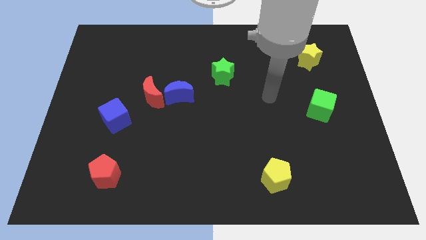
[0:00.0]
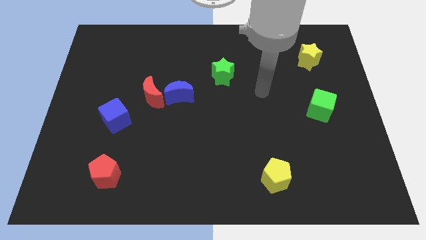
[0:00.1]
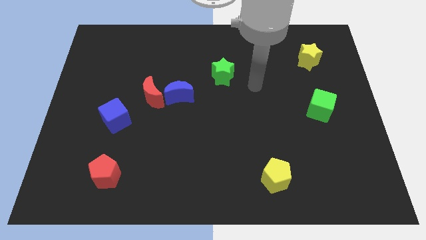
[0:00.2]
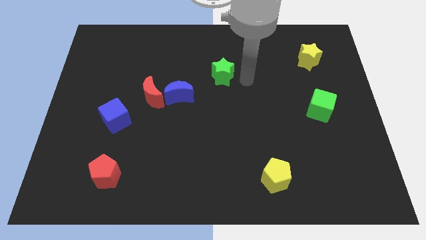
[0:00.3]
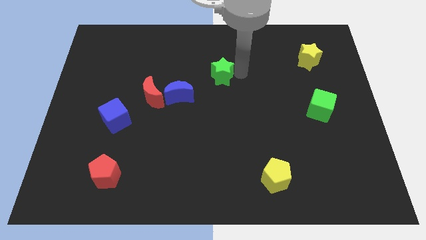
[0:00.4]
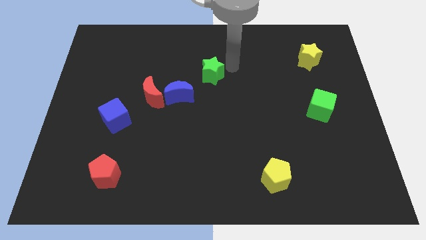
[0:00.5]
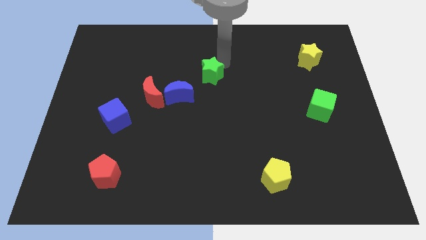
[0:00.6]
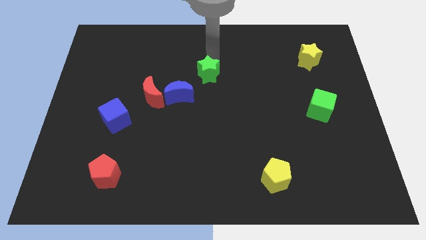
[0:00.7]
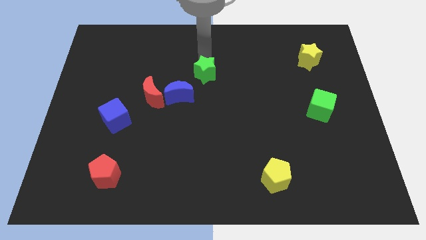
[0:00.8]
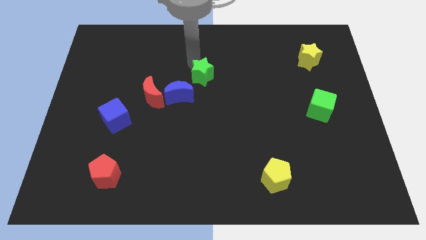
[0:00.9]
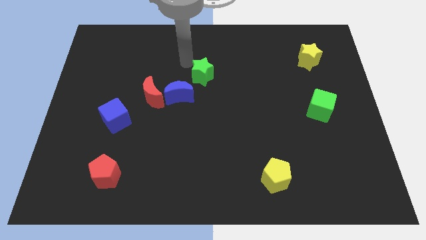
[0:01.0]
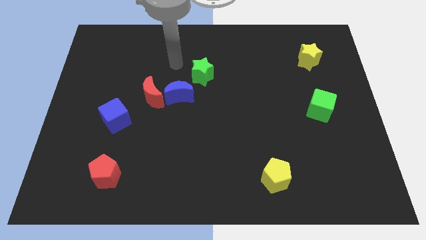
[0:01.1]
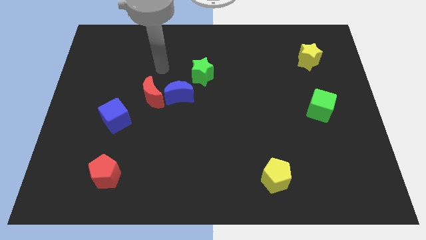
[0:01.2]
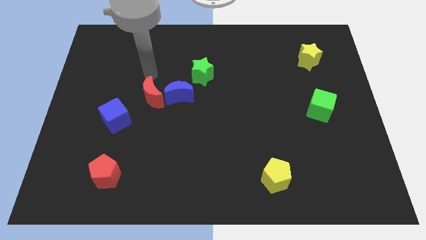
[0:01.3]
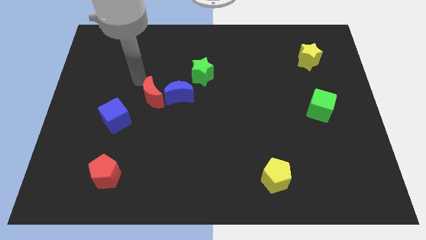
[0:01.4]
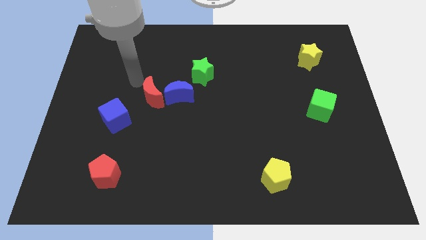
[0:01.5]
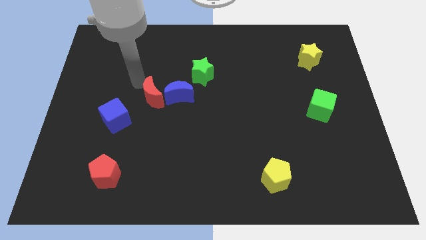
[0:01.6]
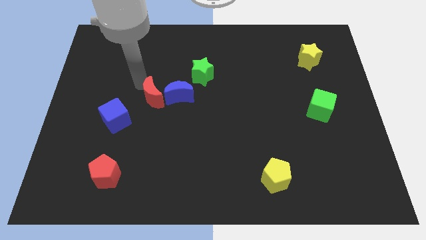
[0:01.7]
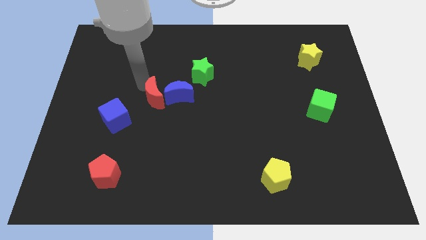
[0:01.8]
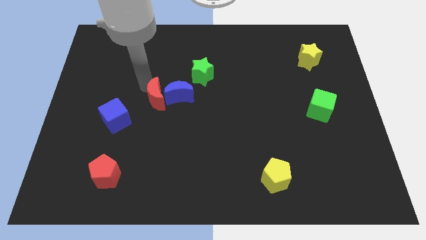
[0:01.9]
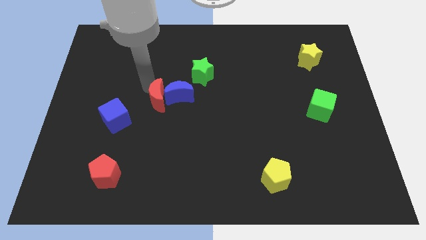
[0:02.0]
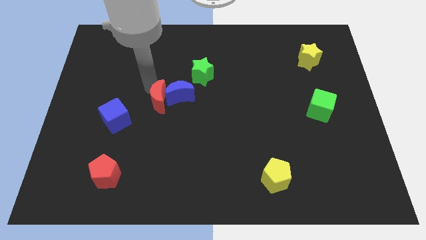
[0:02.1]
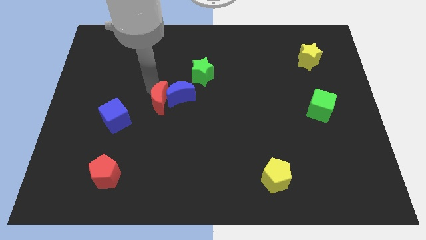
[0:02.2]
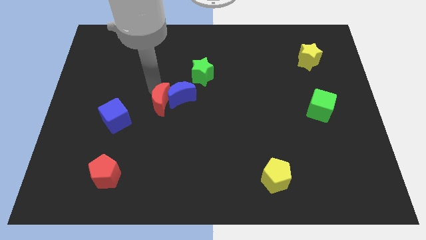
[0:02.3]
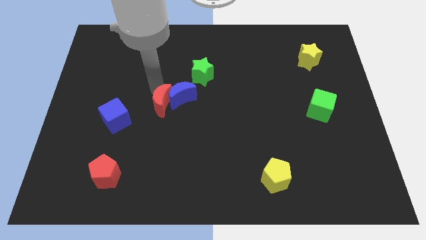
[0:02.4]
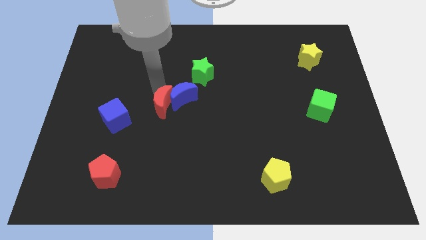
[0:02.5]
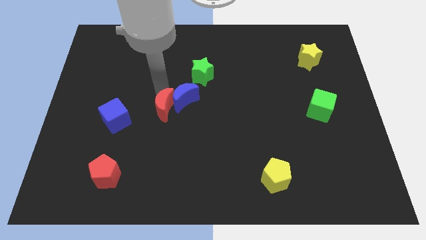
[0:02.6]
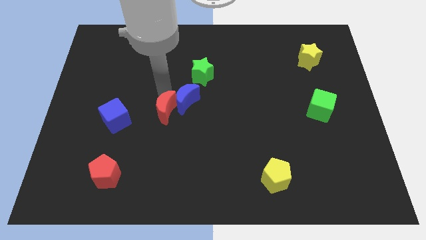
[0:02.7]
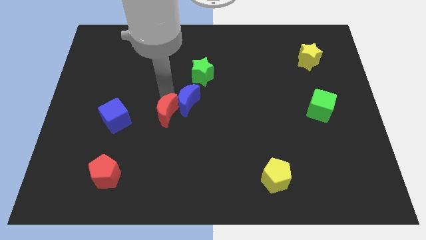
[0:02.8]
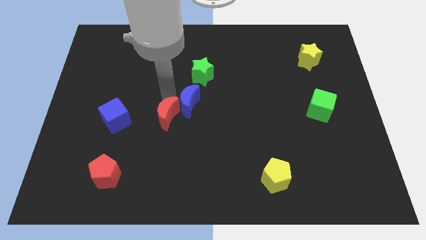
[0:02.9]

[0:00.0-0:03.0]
move the red moon down and to the right diagonally slightly

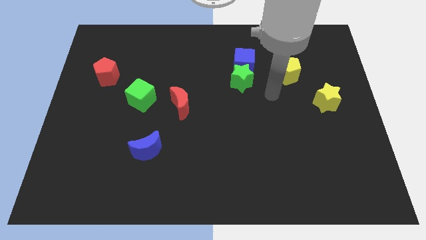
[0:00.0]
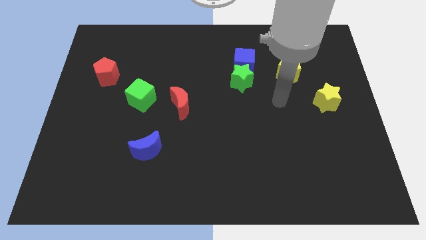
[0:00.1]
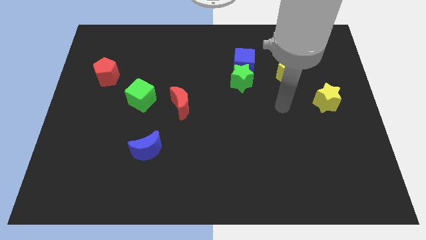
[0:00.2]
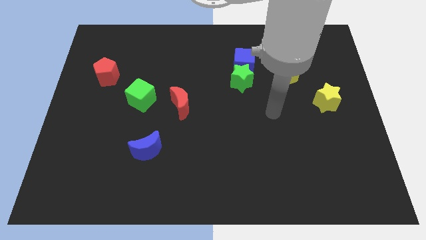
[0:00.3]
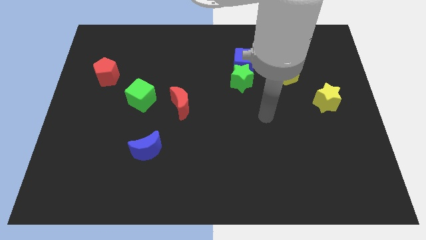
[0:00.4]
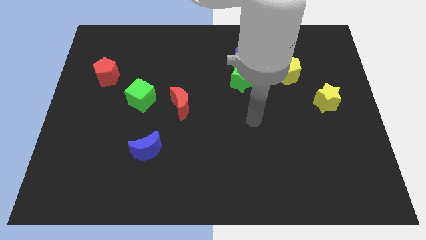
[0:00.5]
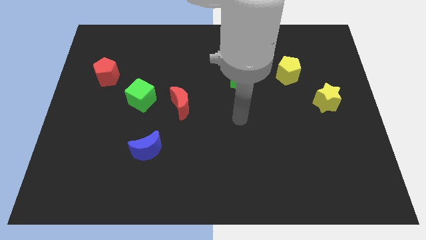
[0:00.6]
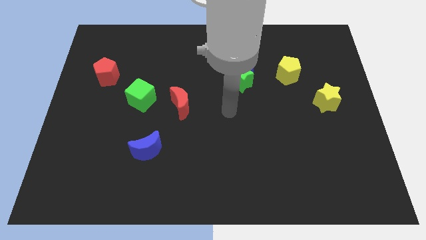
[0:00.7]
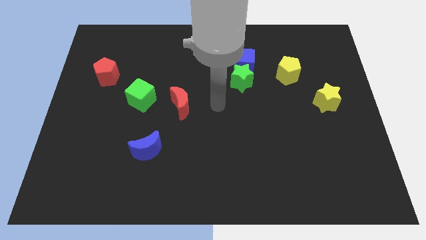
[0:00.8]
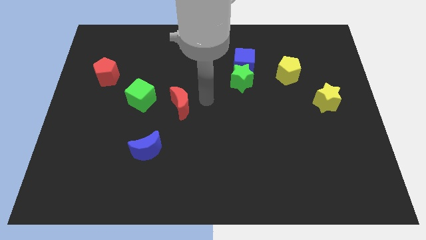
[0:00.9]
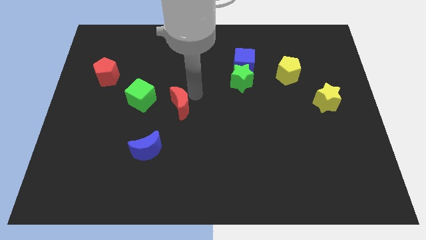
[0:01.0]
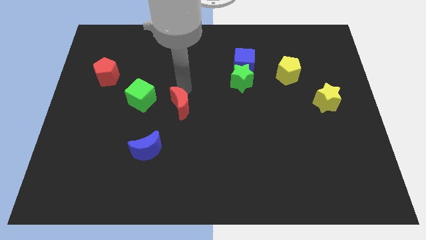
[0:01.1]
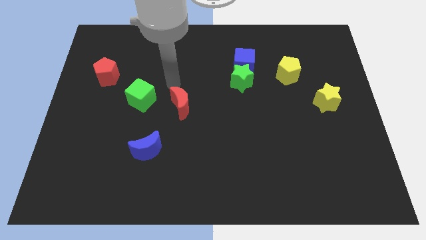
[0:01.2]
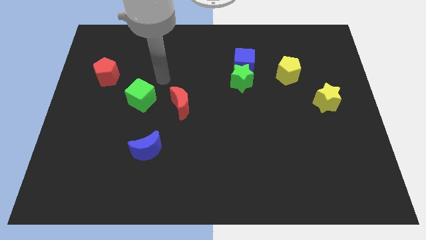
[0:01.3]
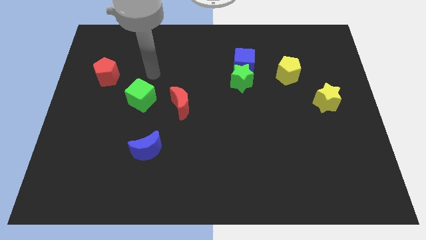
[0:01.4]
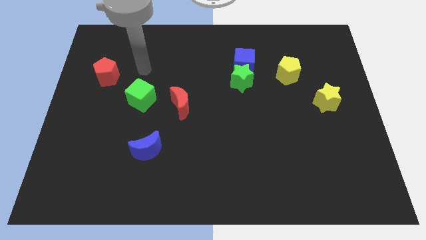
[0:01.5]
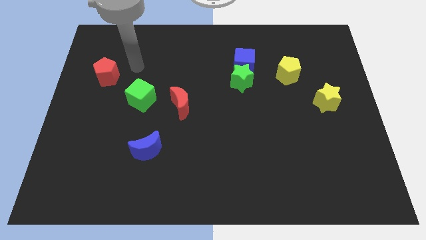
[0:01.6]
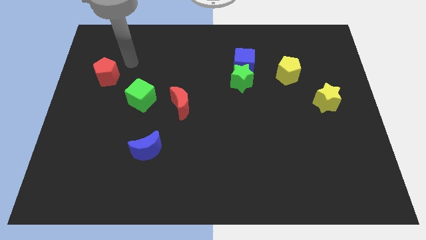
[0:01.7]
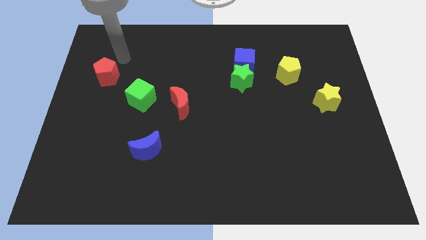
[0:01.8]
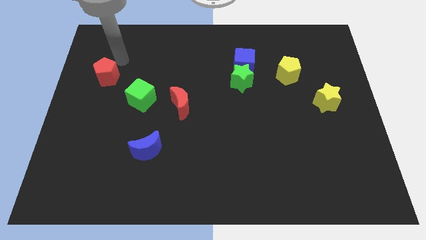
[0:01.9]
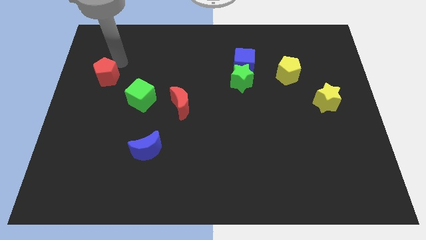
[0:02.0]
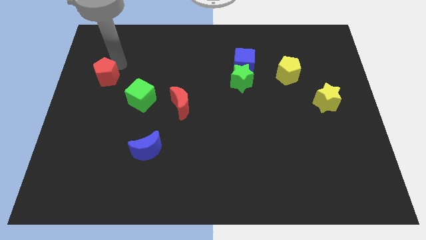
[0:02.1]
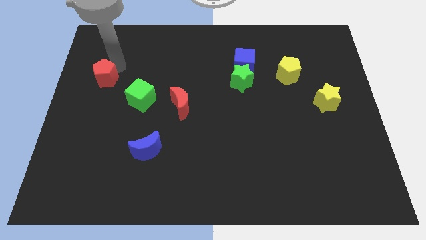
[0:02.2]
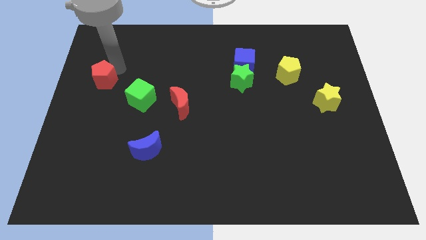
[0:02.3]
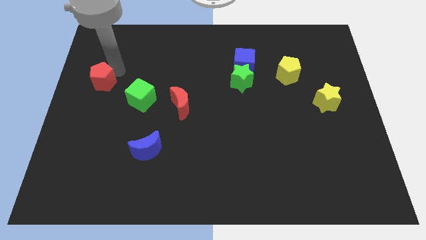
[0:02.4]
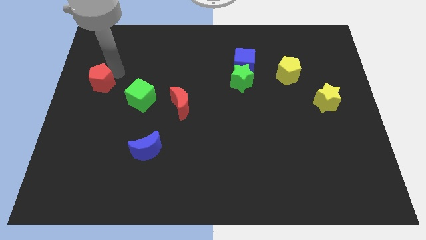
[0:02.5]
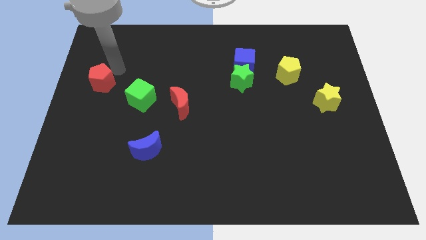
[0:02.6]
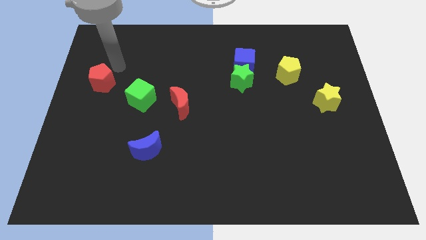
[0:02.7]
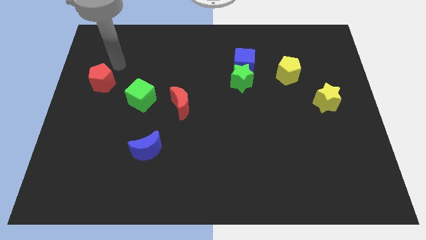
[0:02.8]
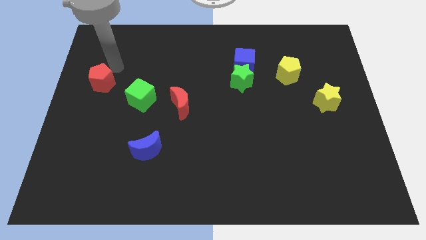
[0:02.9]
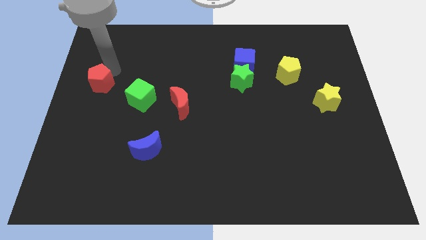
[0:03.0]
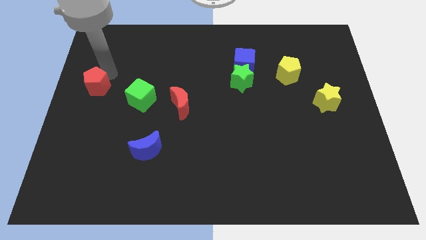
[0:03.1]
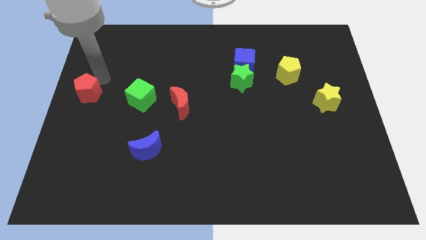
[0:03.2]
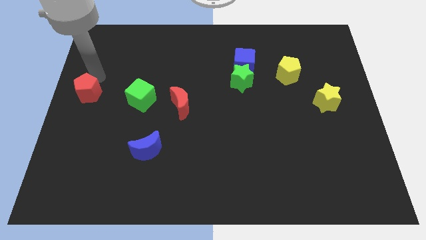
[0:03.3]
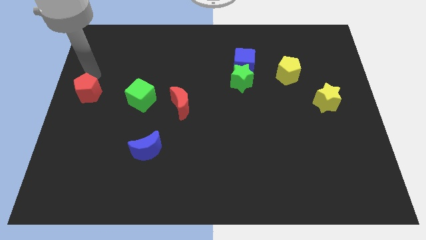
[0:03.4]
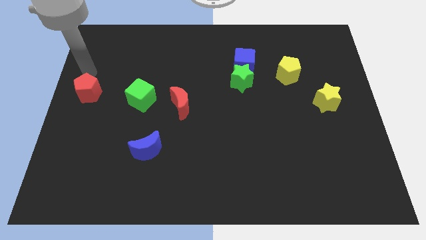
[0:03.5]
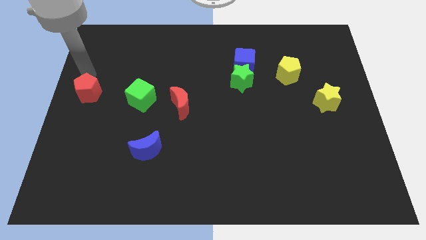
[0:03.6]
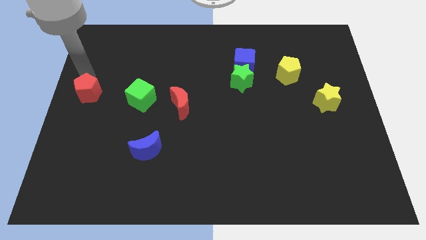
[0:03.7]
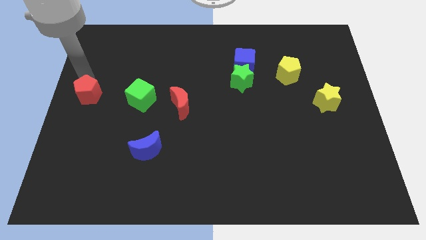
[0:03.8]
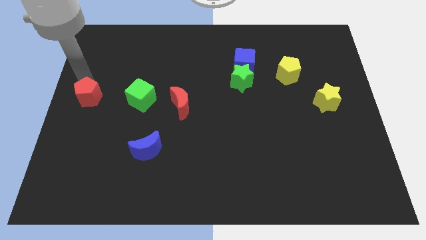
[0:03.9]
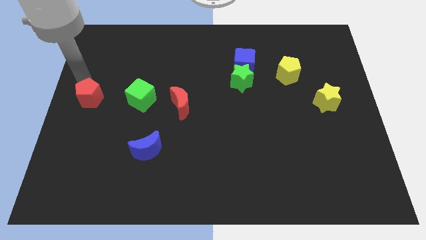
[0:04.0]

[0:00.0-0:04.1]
push the red pentagon downwards slightly

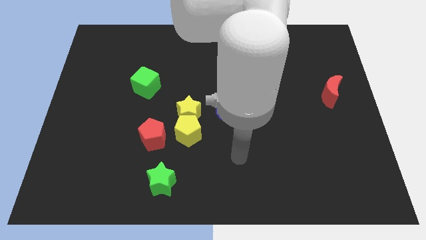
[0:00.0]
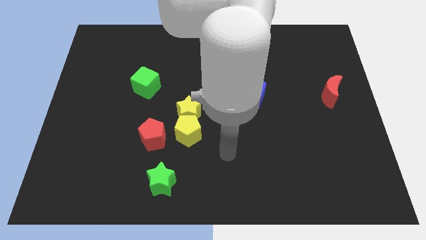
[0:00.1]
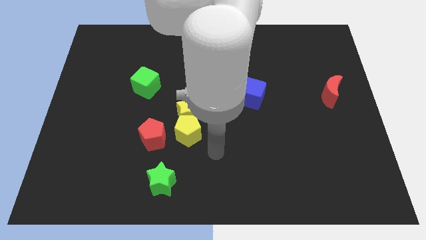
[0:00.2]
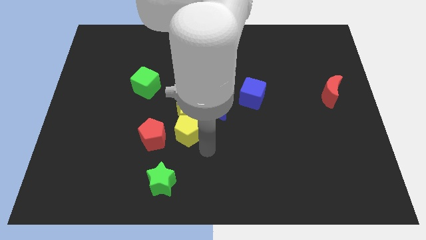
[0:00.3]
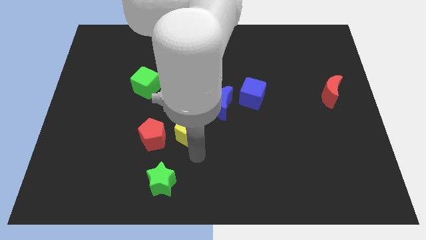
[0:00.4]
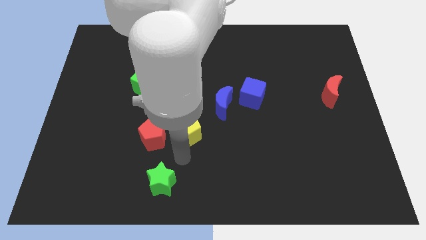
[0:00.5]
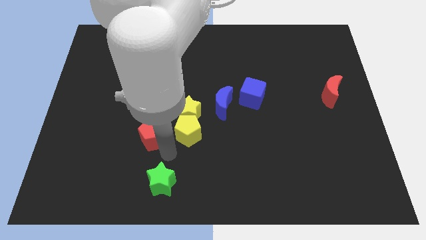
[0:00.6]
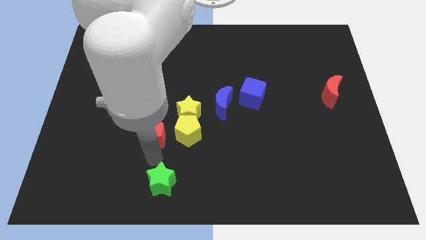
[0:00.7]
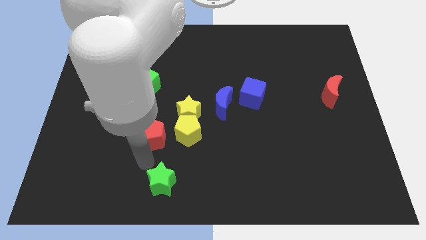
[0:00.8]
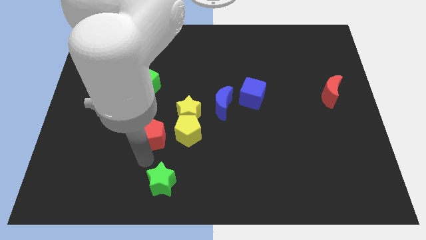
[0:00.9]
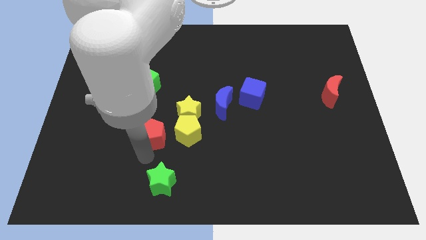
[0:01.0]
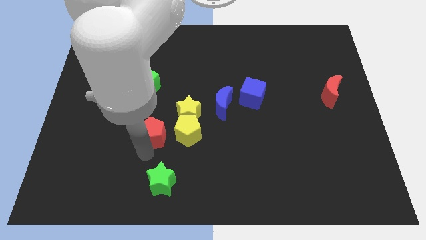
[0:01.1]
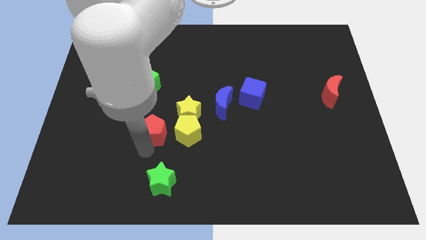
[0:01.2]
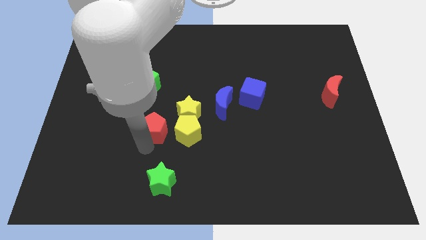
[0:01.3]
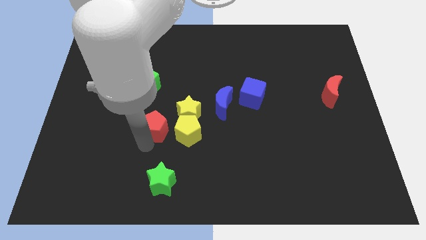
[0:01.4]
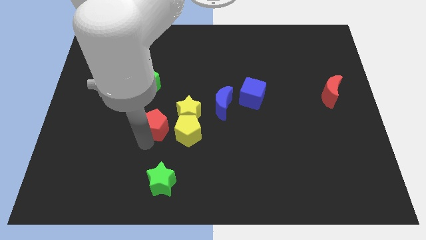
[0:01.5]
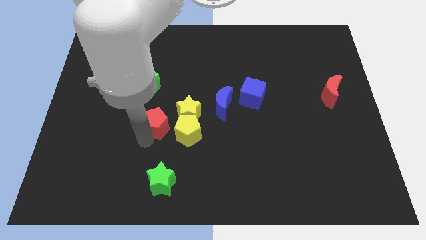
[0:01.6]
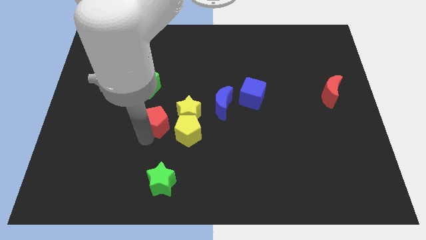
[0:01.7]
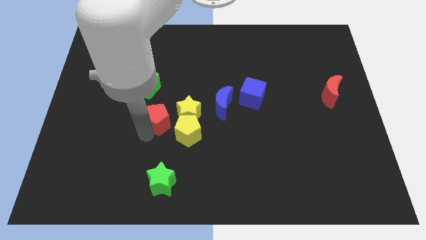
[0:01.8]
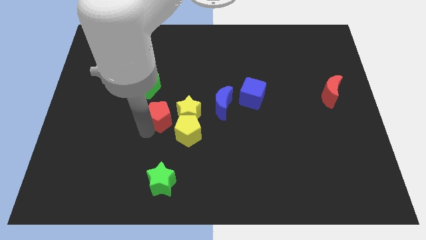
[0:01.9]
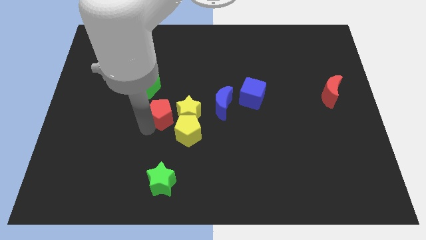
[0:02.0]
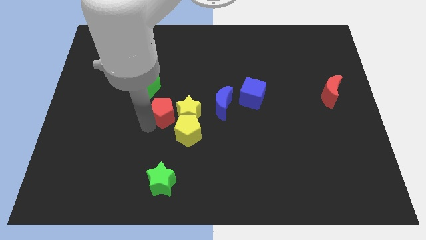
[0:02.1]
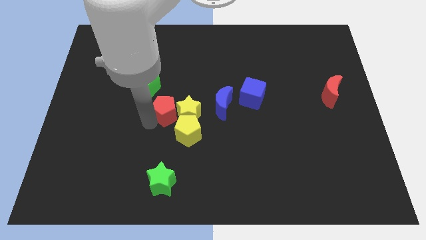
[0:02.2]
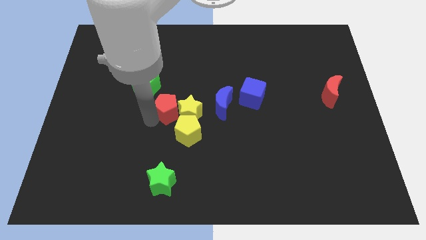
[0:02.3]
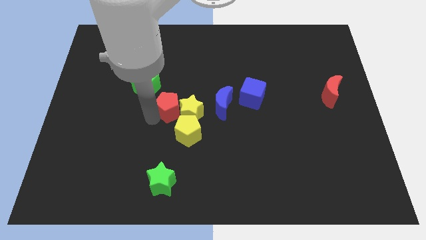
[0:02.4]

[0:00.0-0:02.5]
slightly move the red pentagon up and then to the right
